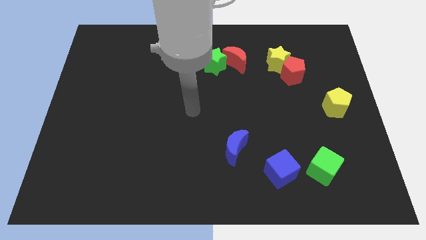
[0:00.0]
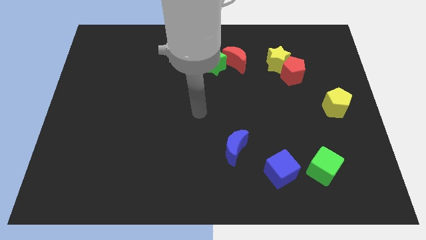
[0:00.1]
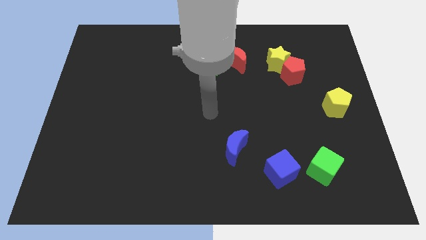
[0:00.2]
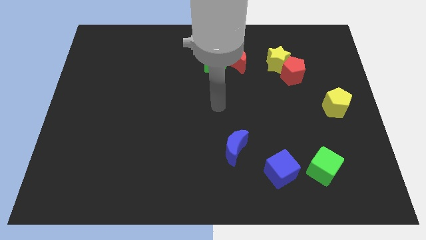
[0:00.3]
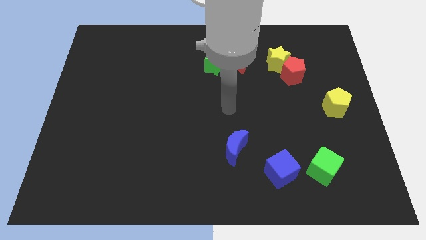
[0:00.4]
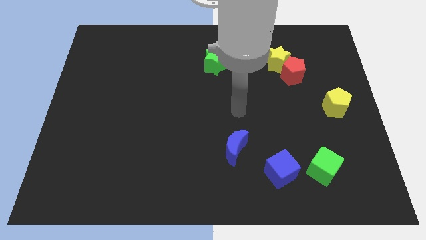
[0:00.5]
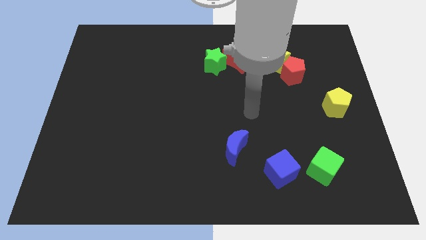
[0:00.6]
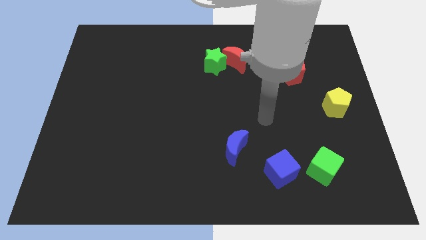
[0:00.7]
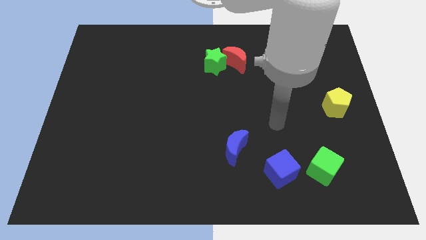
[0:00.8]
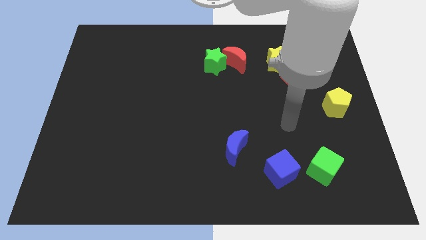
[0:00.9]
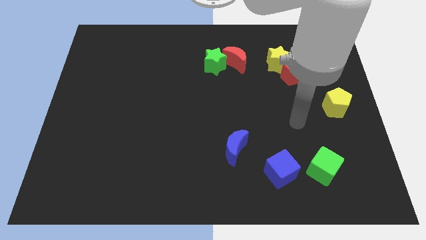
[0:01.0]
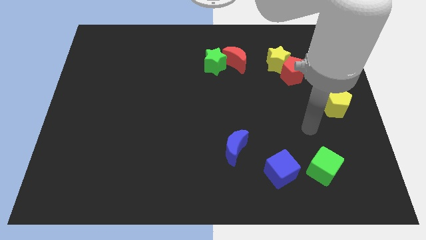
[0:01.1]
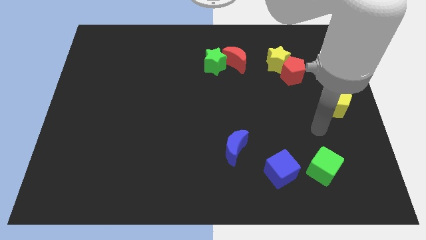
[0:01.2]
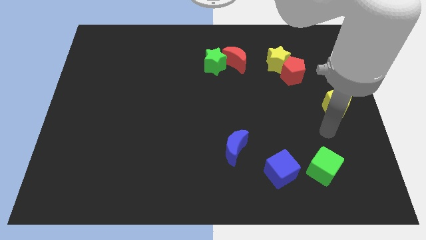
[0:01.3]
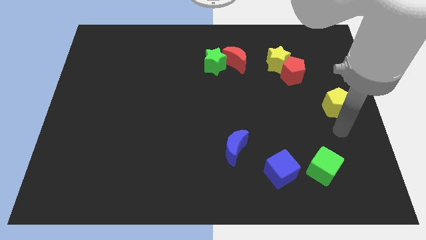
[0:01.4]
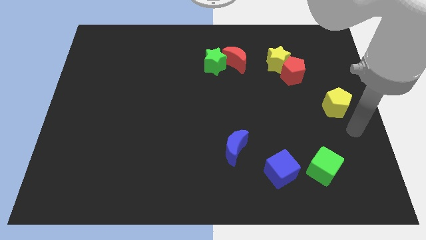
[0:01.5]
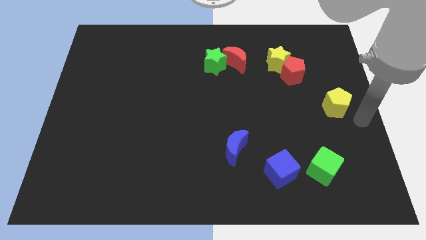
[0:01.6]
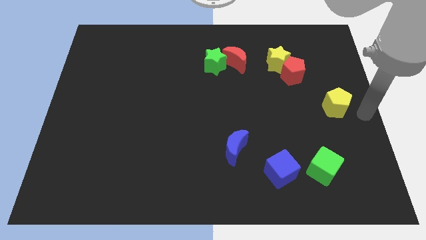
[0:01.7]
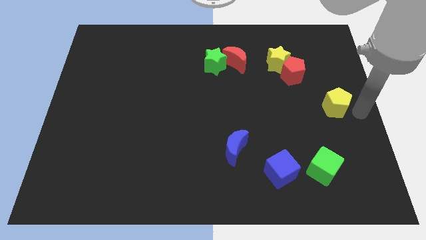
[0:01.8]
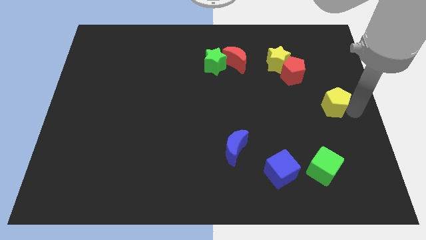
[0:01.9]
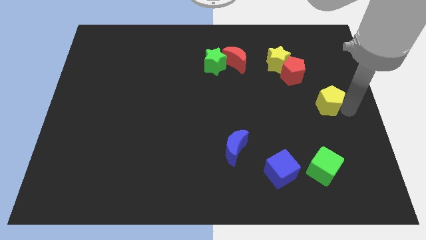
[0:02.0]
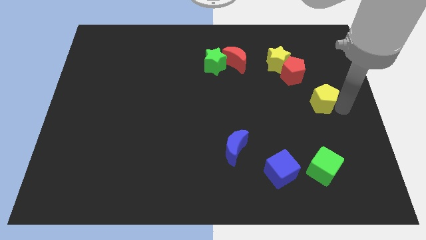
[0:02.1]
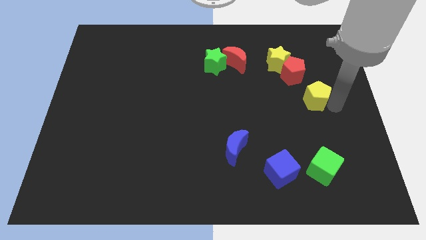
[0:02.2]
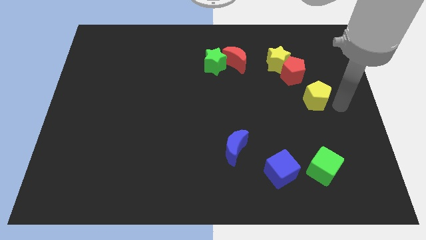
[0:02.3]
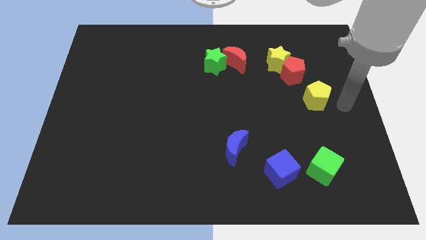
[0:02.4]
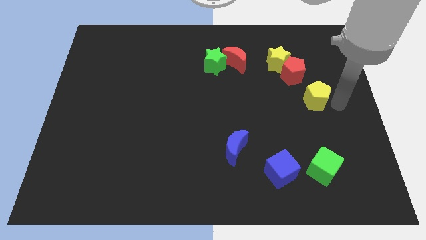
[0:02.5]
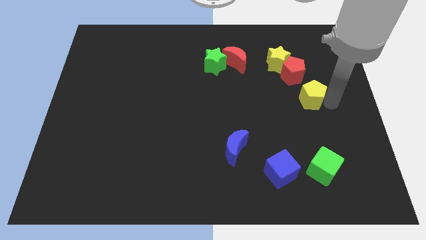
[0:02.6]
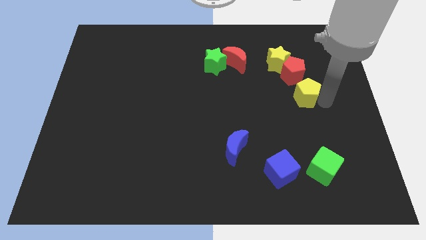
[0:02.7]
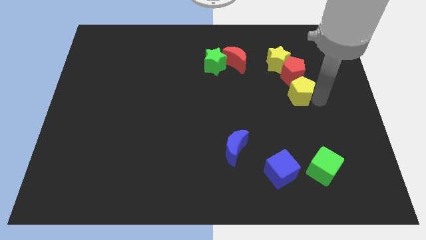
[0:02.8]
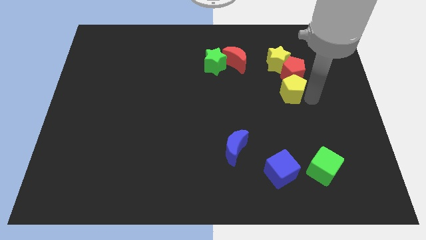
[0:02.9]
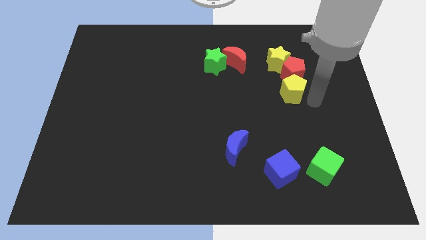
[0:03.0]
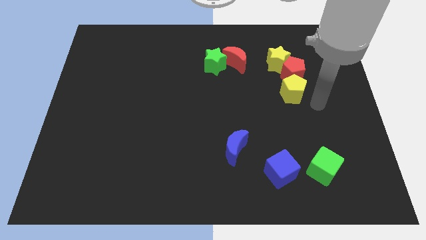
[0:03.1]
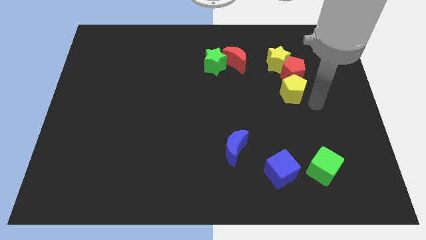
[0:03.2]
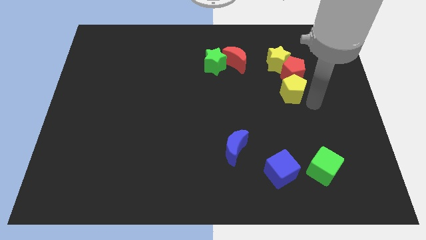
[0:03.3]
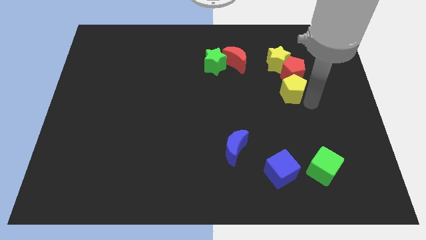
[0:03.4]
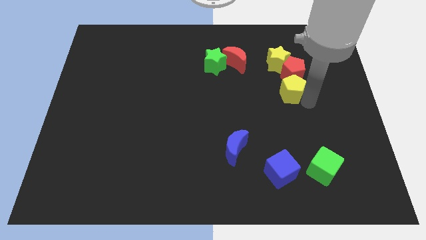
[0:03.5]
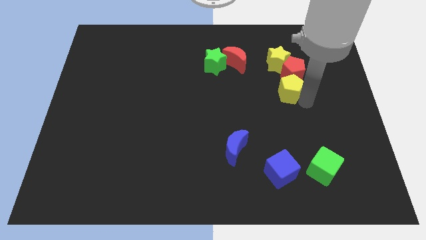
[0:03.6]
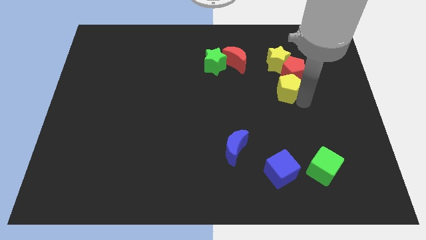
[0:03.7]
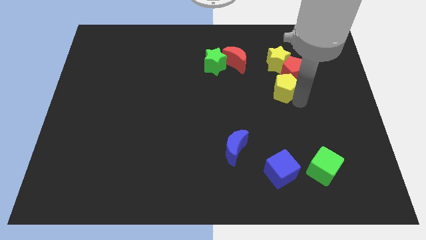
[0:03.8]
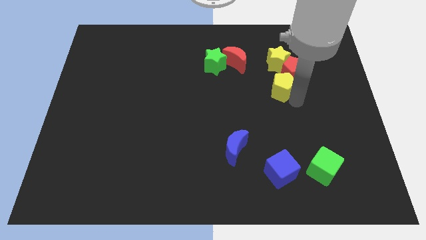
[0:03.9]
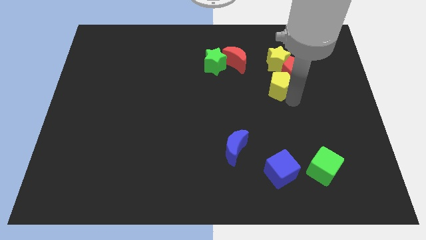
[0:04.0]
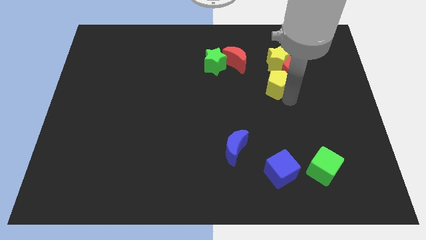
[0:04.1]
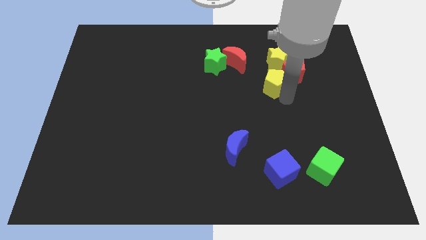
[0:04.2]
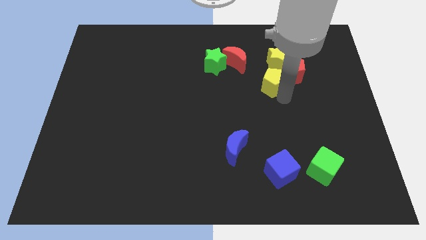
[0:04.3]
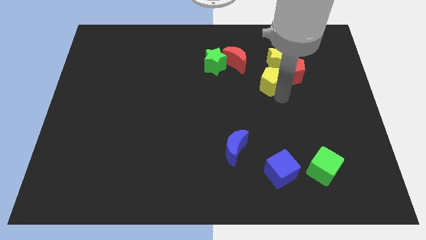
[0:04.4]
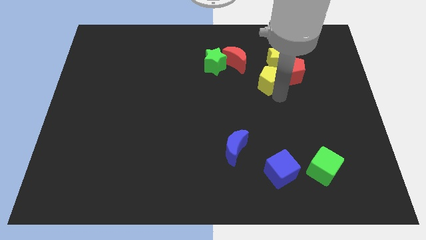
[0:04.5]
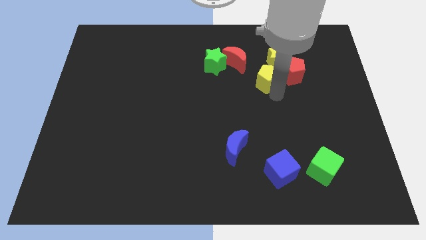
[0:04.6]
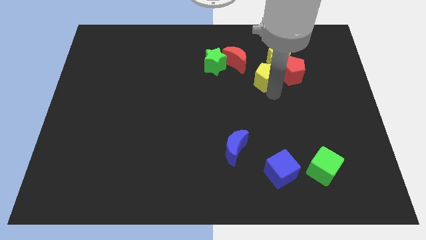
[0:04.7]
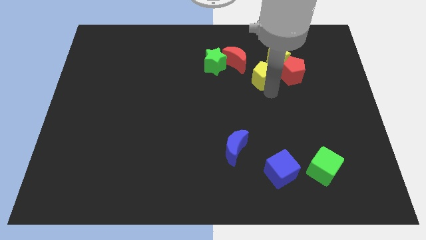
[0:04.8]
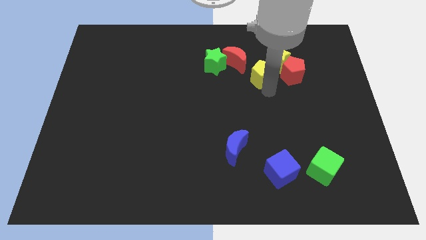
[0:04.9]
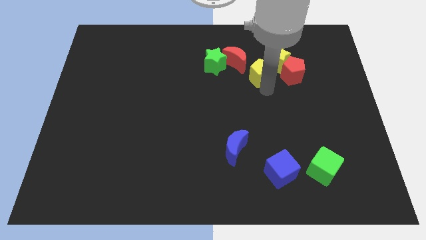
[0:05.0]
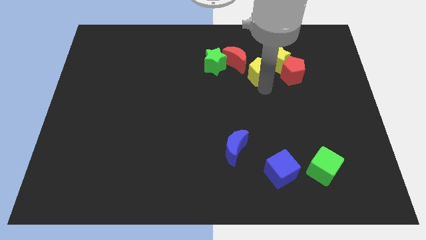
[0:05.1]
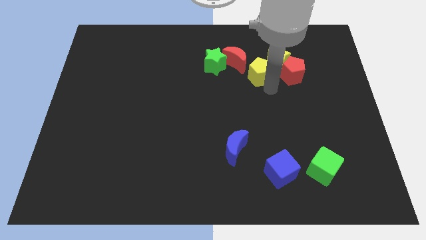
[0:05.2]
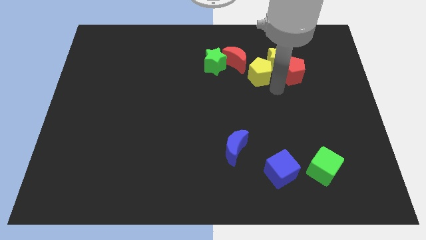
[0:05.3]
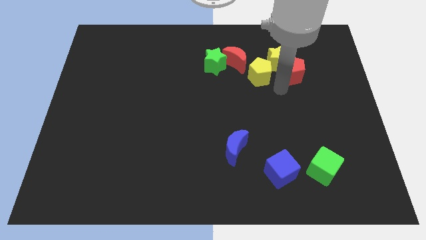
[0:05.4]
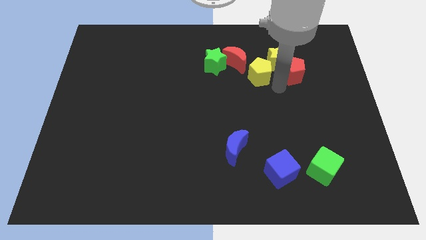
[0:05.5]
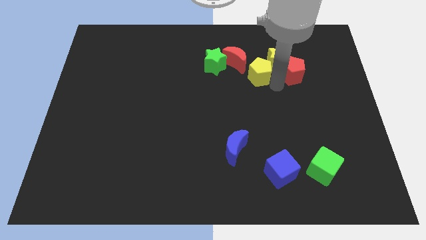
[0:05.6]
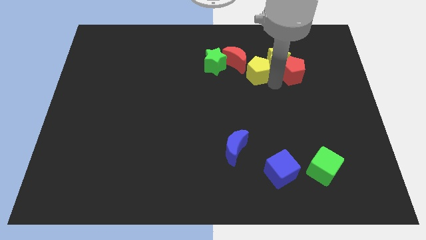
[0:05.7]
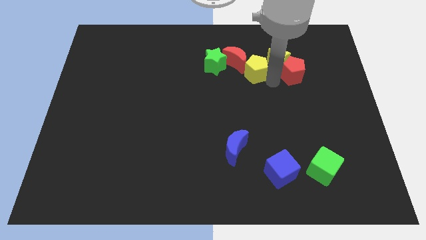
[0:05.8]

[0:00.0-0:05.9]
push the yellow pentagon towards the red moon

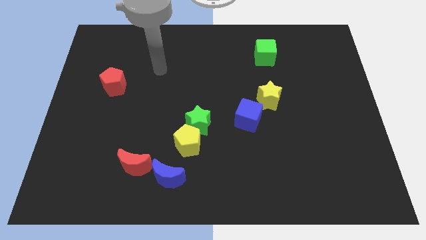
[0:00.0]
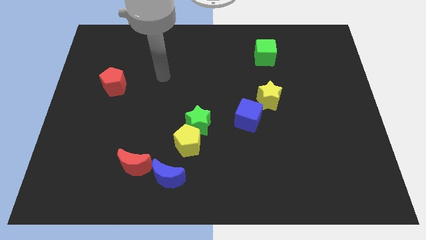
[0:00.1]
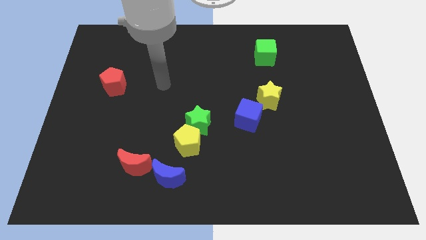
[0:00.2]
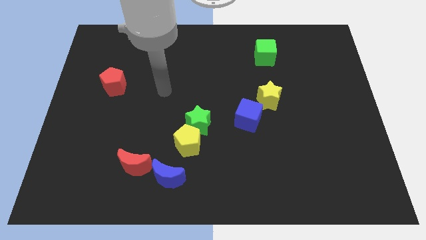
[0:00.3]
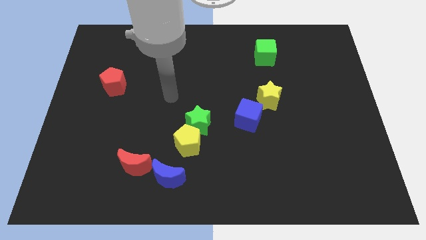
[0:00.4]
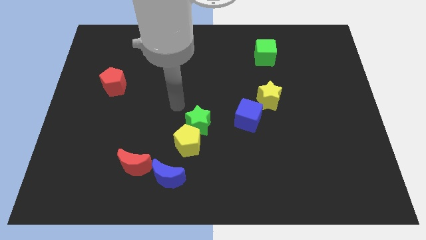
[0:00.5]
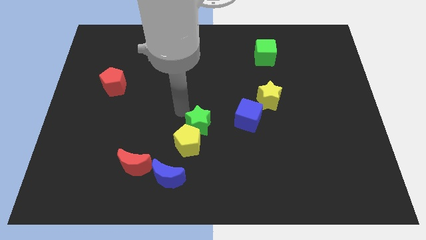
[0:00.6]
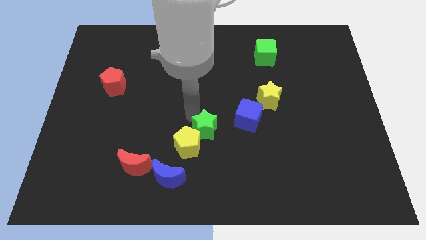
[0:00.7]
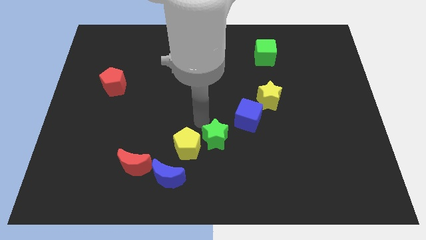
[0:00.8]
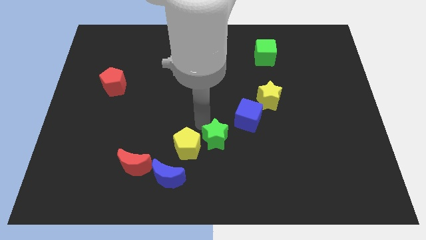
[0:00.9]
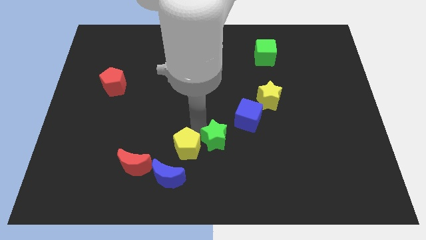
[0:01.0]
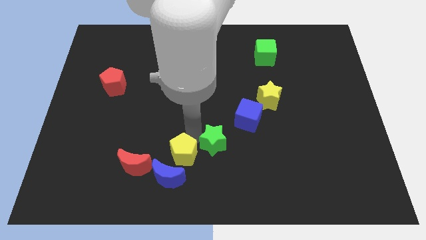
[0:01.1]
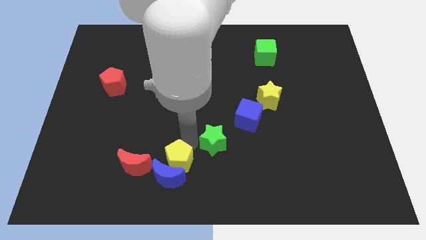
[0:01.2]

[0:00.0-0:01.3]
move the yellow pentagon to the blue moon
